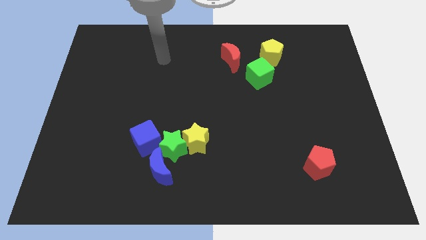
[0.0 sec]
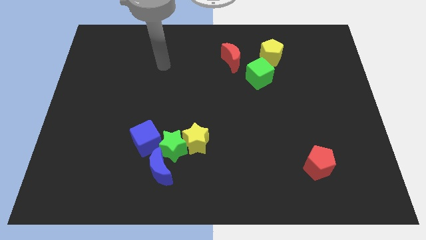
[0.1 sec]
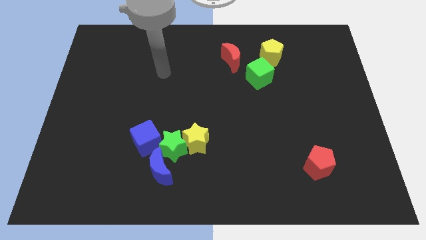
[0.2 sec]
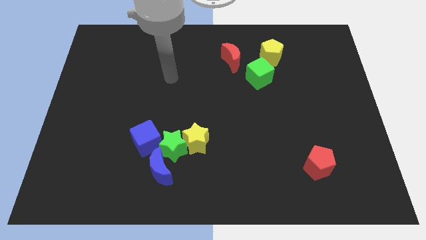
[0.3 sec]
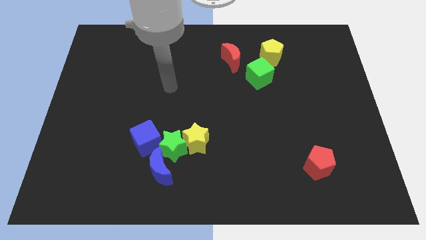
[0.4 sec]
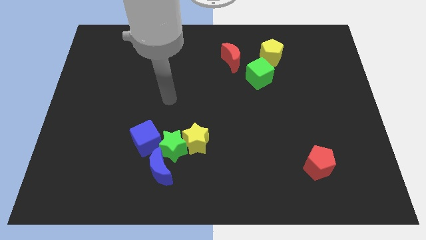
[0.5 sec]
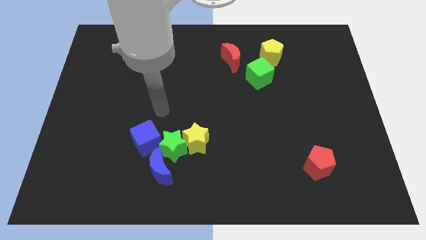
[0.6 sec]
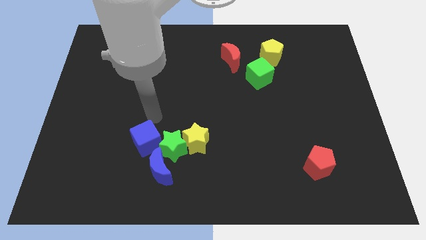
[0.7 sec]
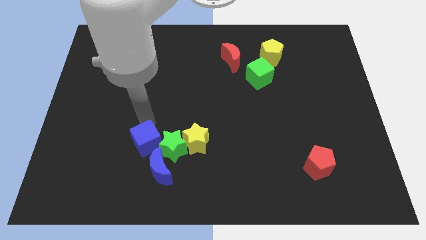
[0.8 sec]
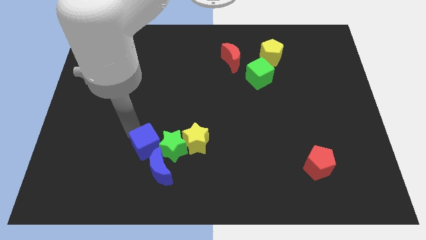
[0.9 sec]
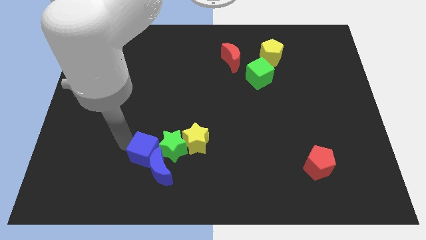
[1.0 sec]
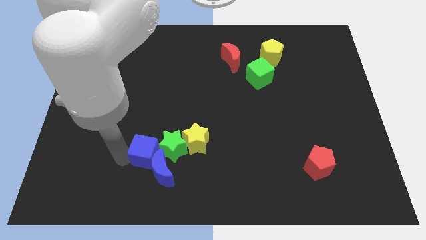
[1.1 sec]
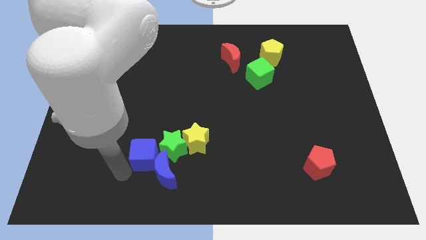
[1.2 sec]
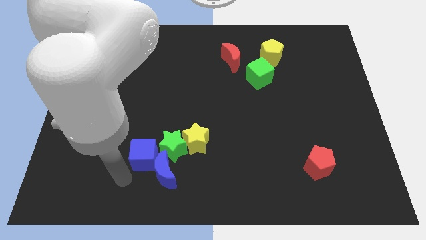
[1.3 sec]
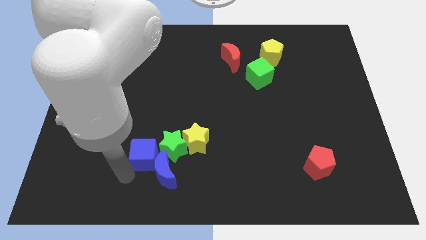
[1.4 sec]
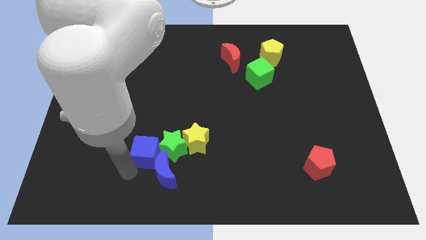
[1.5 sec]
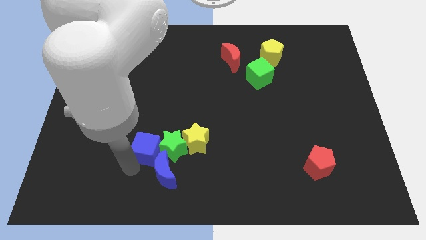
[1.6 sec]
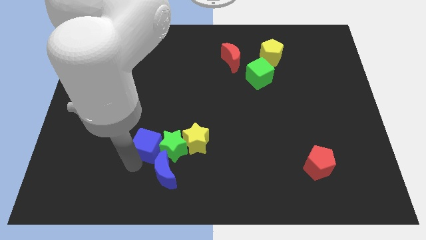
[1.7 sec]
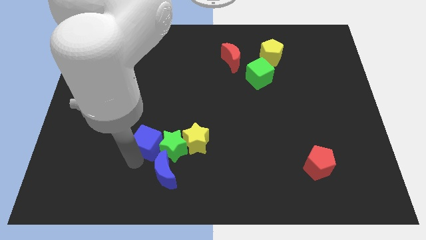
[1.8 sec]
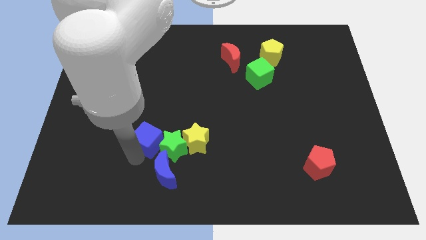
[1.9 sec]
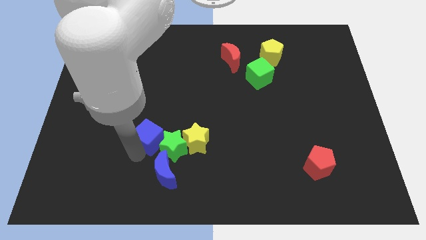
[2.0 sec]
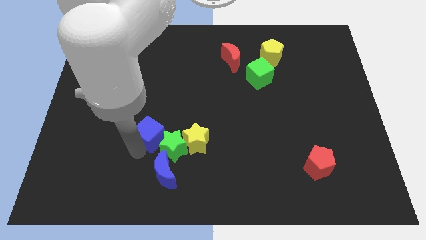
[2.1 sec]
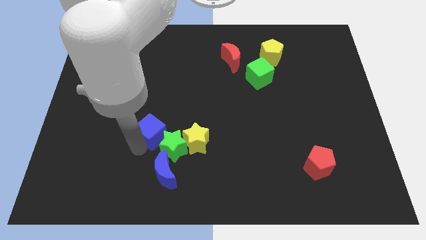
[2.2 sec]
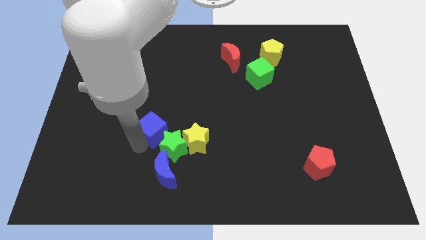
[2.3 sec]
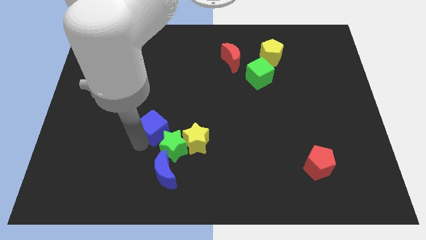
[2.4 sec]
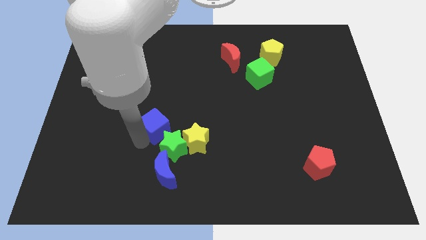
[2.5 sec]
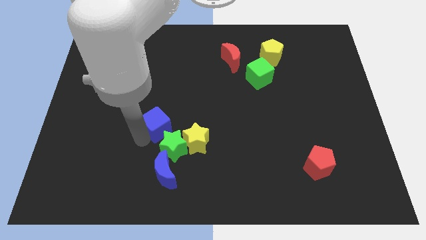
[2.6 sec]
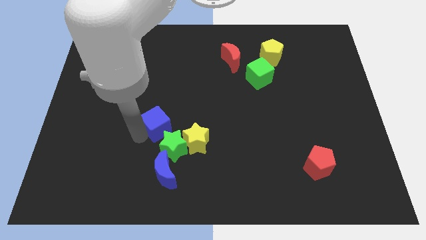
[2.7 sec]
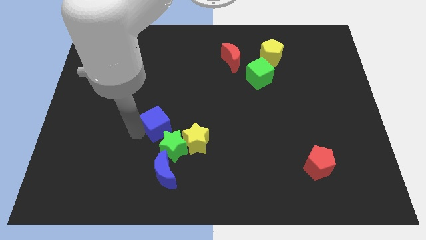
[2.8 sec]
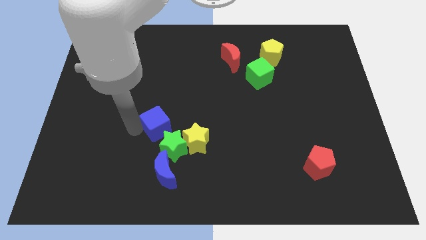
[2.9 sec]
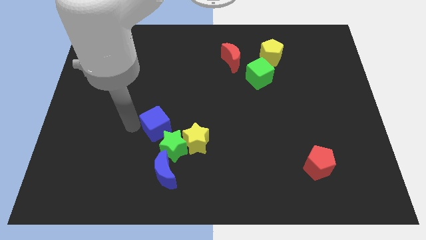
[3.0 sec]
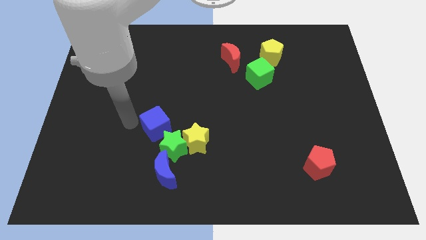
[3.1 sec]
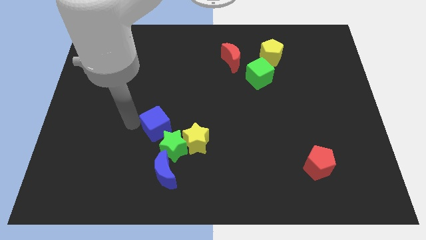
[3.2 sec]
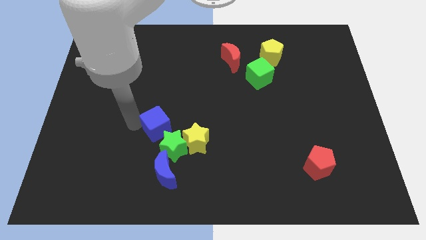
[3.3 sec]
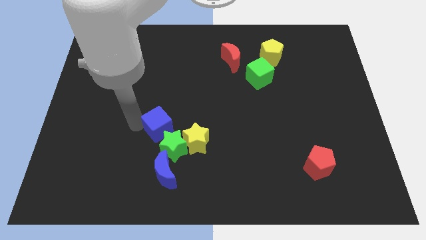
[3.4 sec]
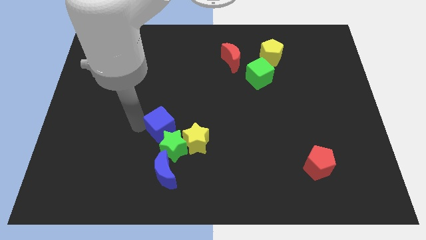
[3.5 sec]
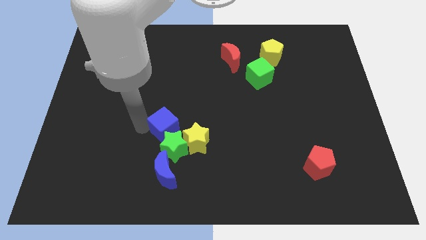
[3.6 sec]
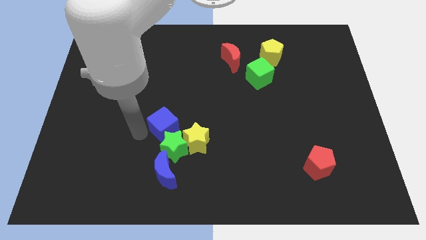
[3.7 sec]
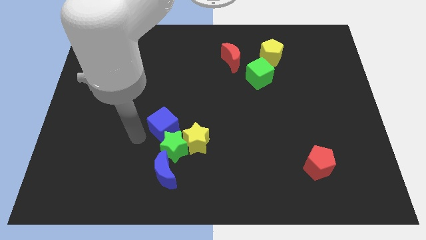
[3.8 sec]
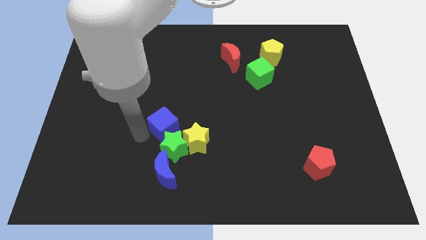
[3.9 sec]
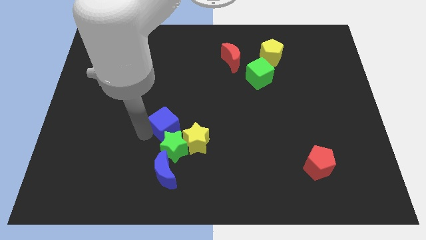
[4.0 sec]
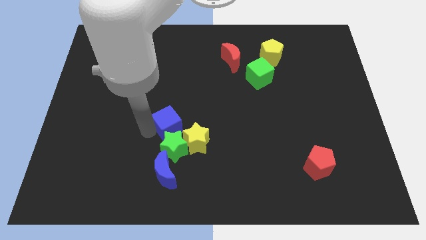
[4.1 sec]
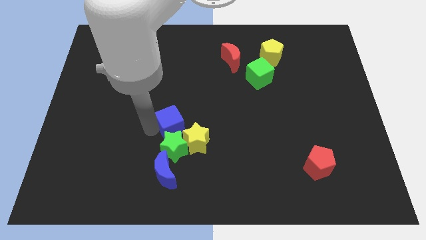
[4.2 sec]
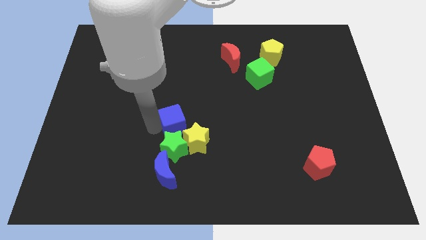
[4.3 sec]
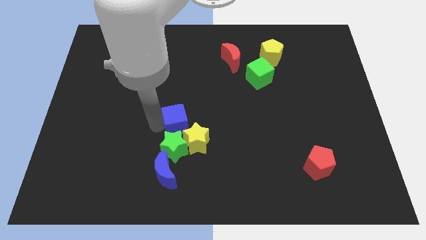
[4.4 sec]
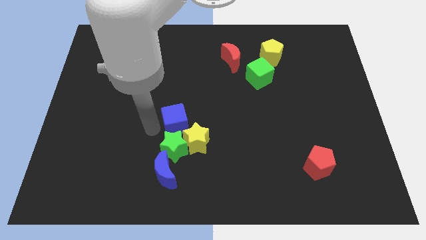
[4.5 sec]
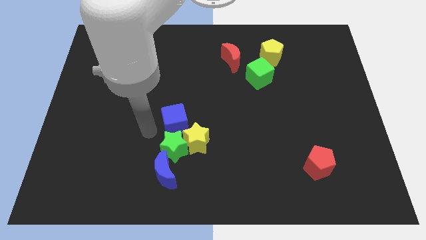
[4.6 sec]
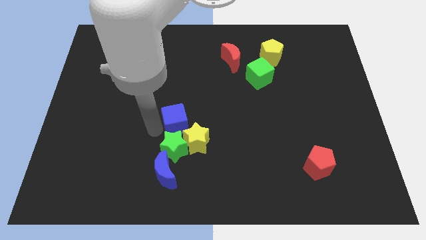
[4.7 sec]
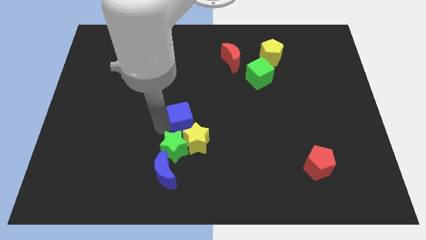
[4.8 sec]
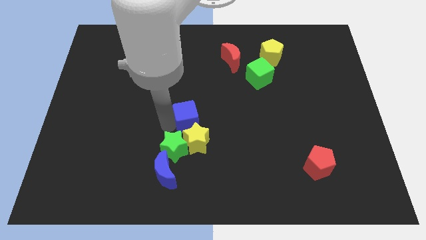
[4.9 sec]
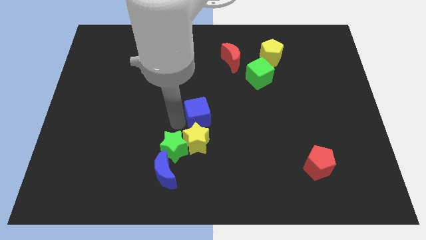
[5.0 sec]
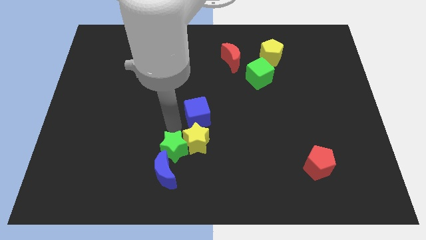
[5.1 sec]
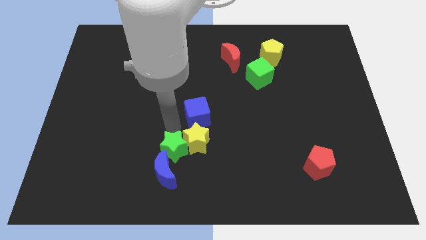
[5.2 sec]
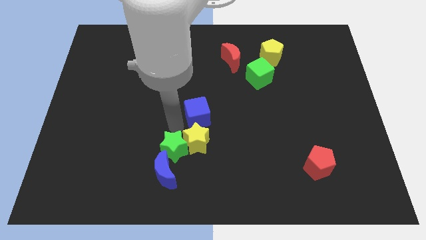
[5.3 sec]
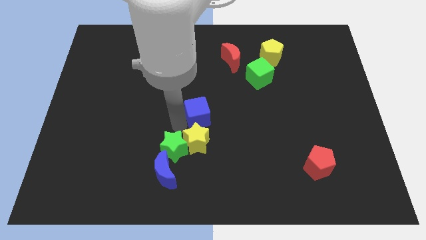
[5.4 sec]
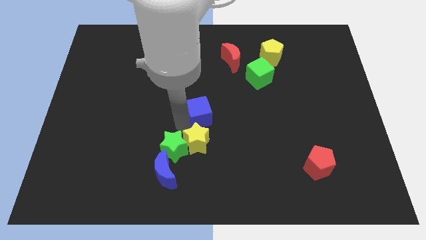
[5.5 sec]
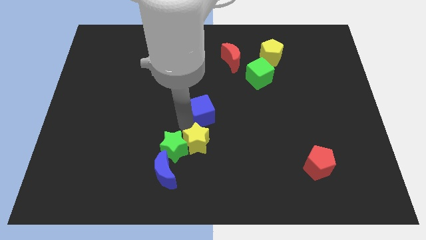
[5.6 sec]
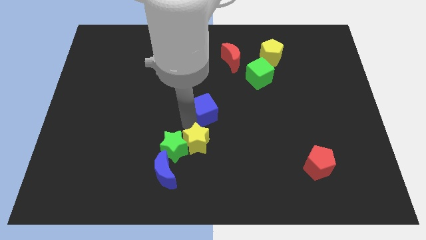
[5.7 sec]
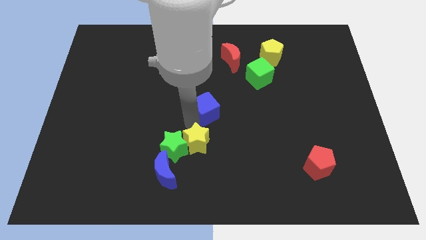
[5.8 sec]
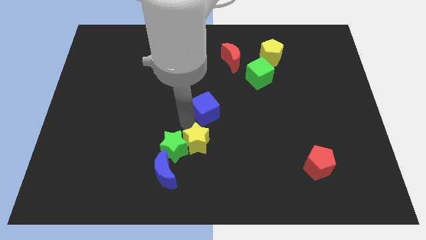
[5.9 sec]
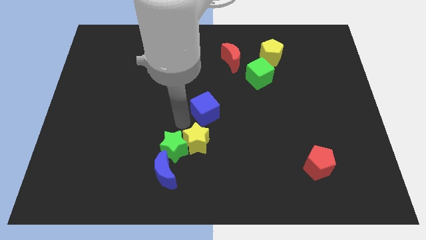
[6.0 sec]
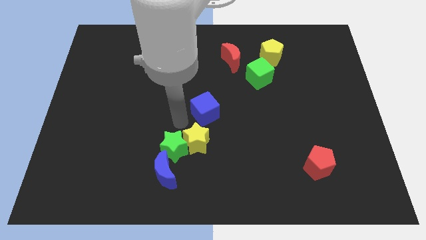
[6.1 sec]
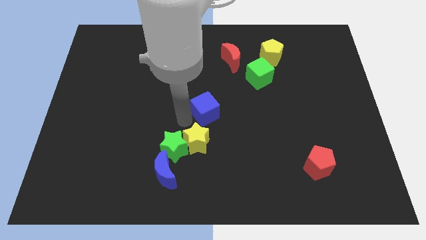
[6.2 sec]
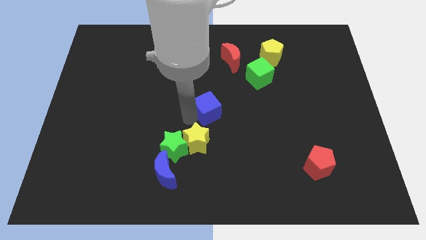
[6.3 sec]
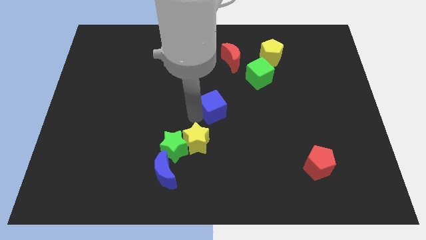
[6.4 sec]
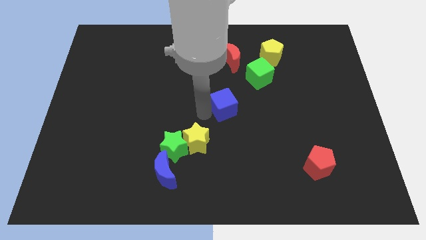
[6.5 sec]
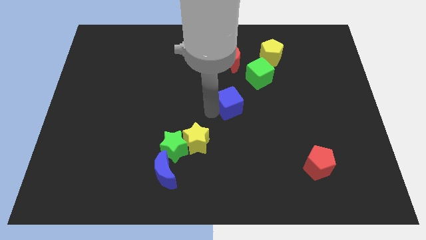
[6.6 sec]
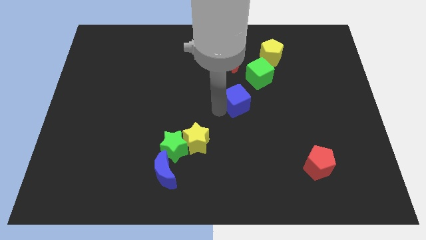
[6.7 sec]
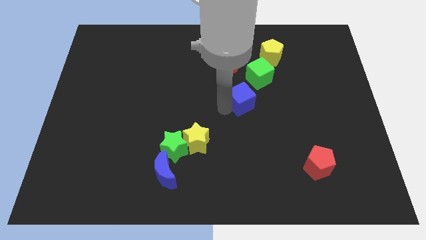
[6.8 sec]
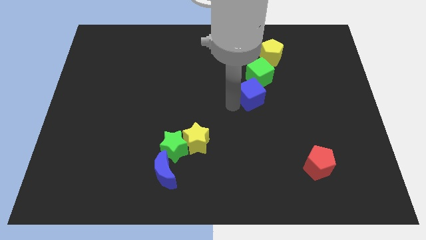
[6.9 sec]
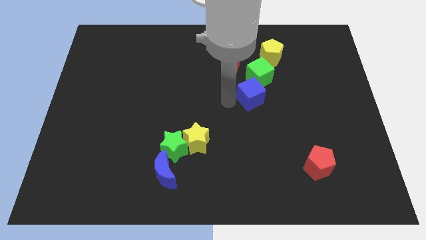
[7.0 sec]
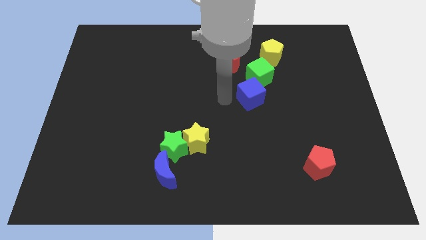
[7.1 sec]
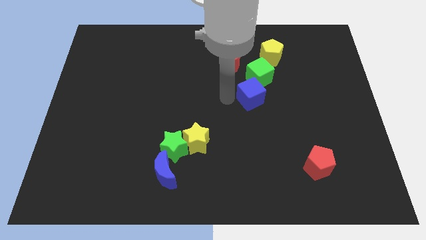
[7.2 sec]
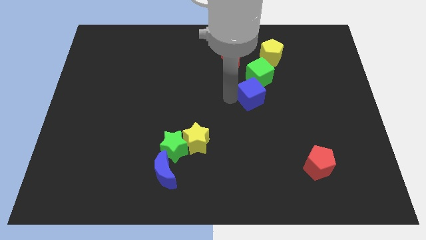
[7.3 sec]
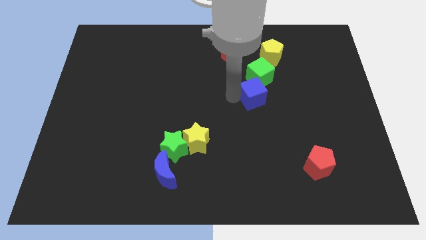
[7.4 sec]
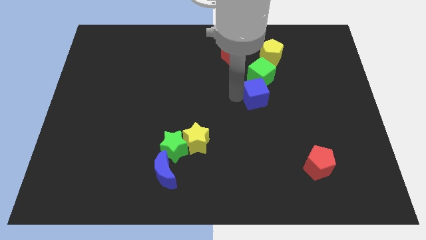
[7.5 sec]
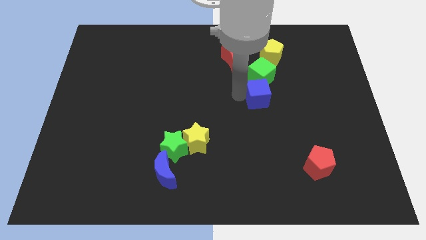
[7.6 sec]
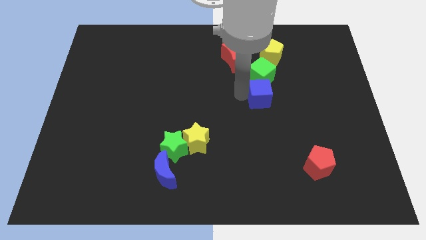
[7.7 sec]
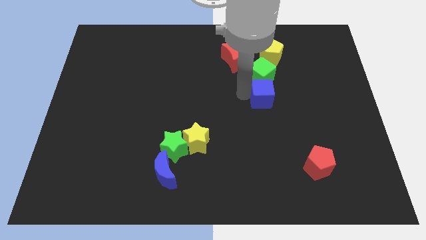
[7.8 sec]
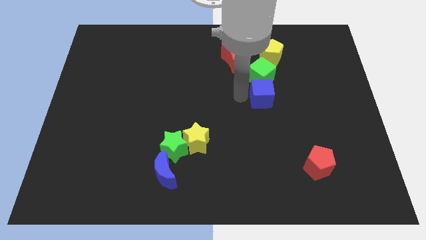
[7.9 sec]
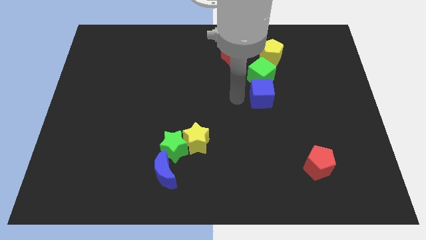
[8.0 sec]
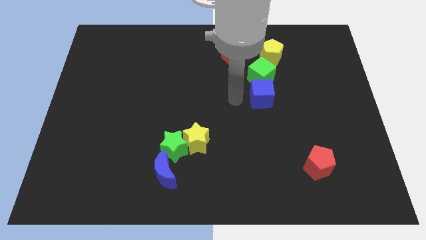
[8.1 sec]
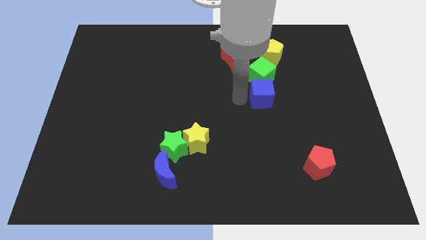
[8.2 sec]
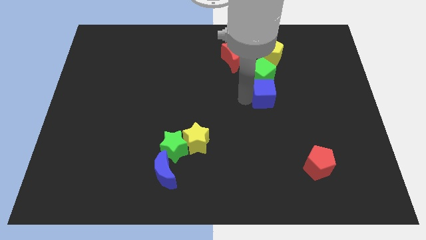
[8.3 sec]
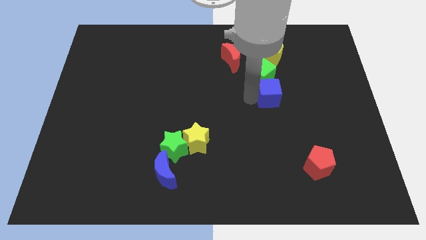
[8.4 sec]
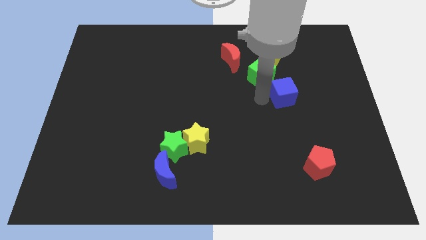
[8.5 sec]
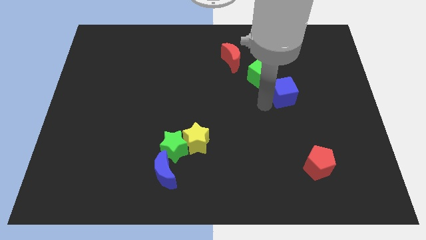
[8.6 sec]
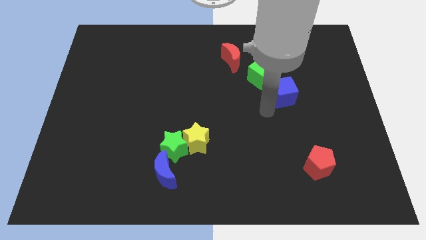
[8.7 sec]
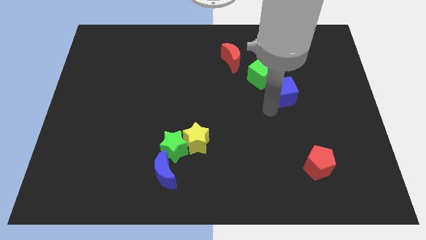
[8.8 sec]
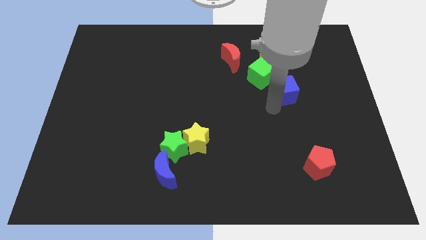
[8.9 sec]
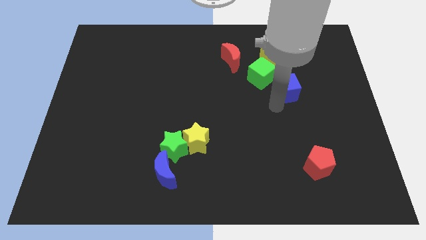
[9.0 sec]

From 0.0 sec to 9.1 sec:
put the blue cube to the right of the green cube
